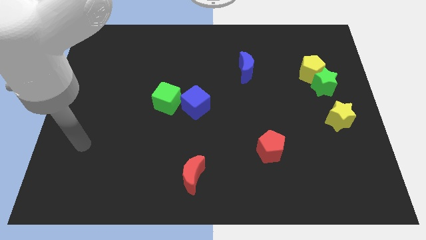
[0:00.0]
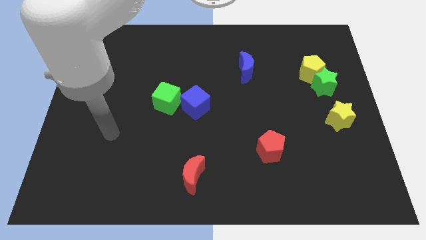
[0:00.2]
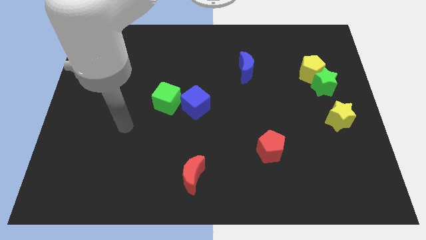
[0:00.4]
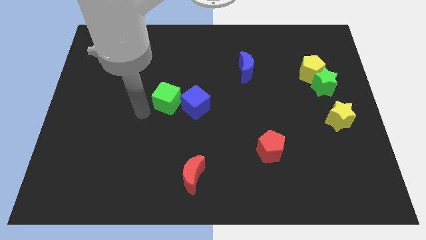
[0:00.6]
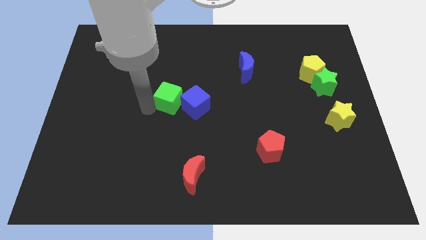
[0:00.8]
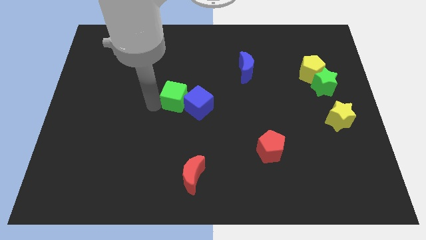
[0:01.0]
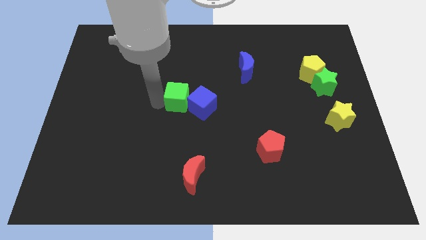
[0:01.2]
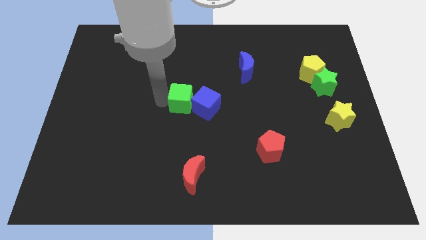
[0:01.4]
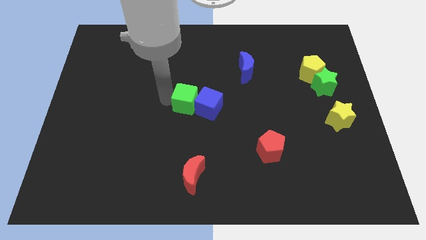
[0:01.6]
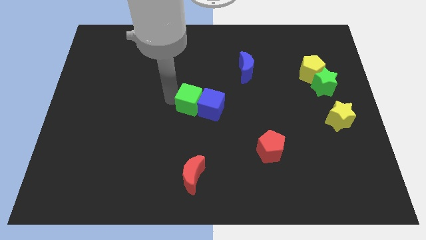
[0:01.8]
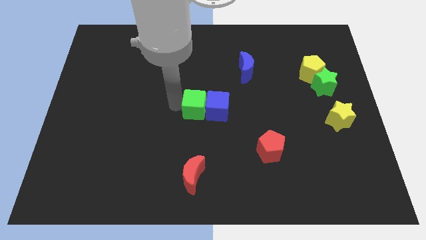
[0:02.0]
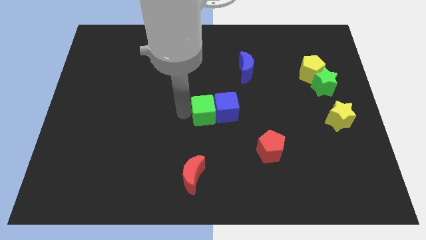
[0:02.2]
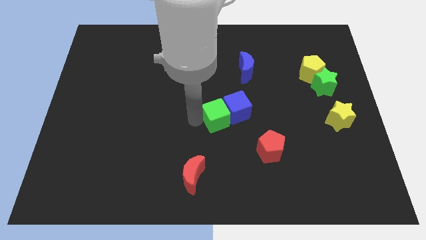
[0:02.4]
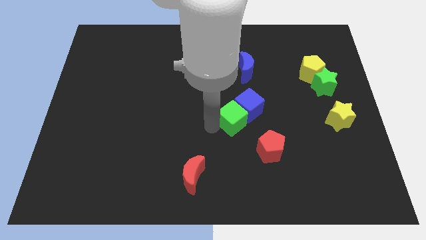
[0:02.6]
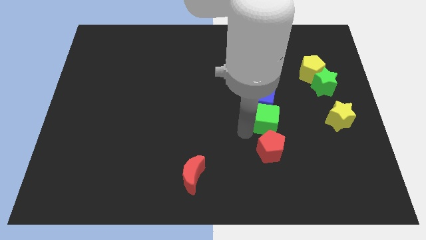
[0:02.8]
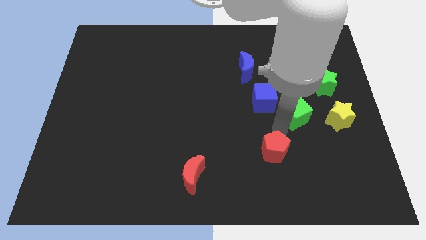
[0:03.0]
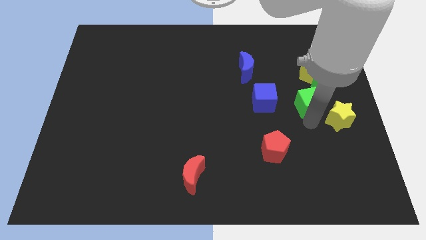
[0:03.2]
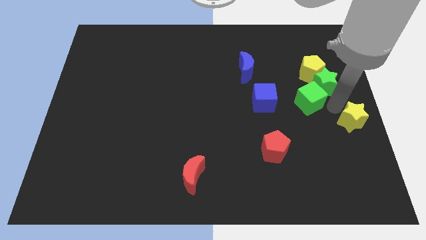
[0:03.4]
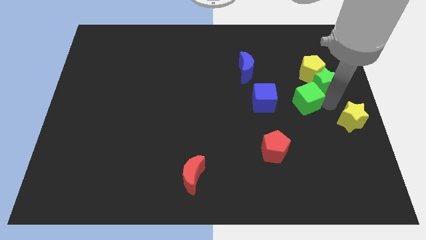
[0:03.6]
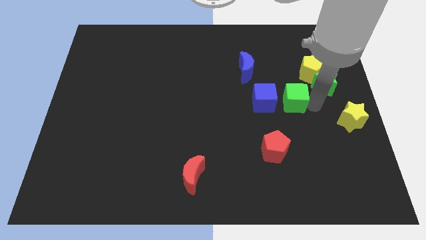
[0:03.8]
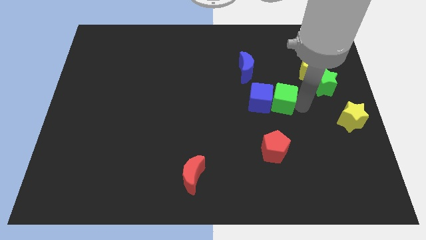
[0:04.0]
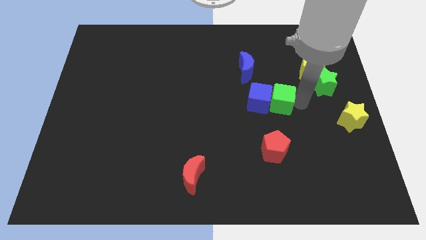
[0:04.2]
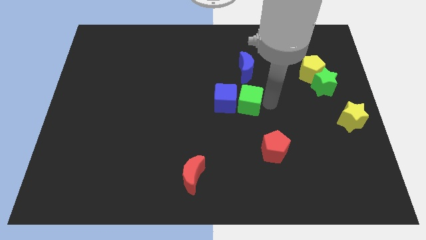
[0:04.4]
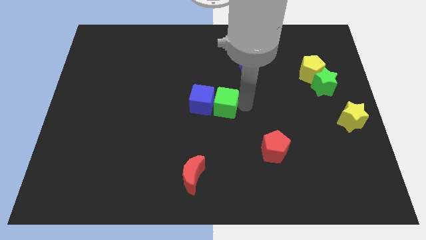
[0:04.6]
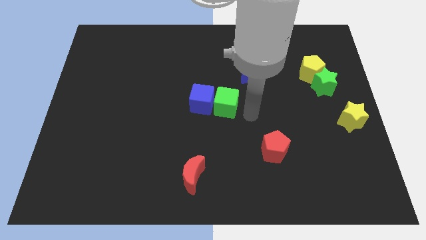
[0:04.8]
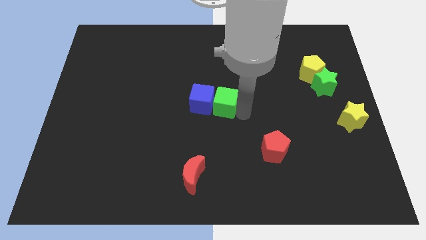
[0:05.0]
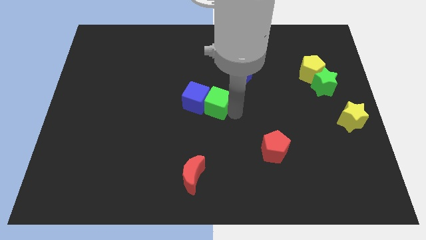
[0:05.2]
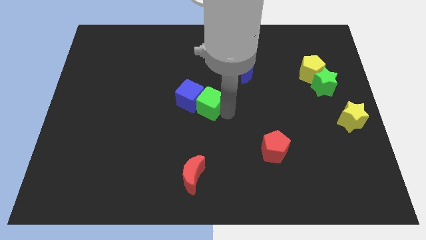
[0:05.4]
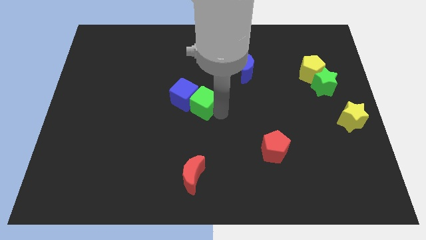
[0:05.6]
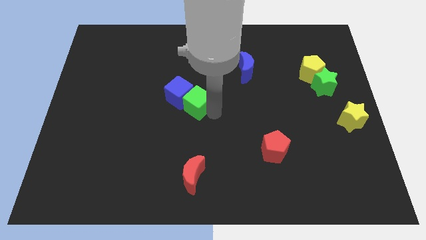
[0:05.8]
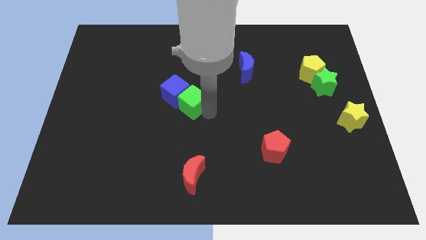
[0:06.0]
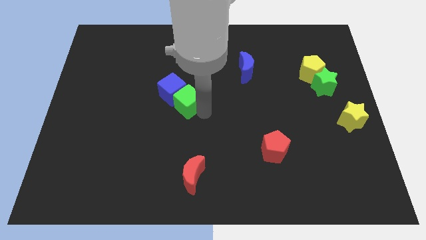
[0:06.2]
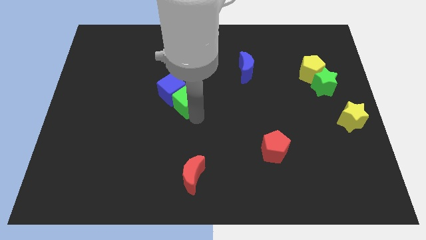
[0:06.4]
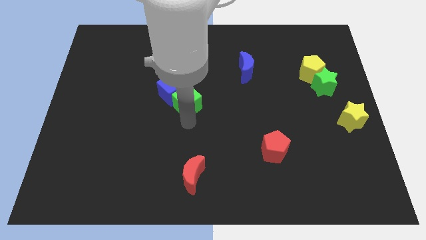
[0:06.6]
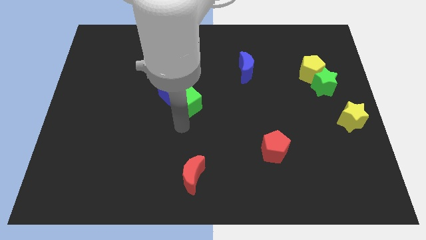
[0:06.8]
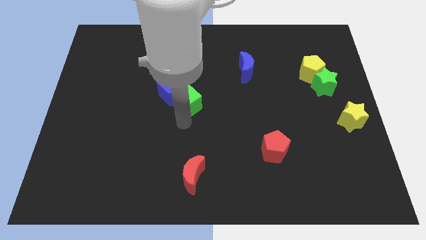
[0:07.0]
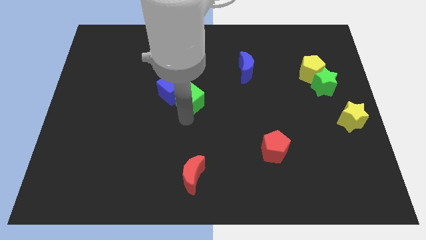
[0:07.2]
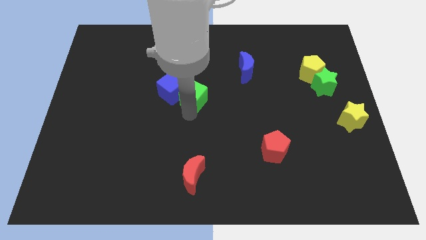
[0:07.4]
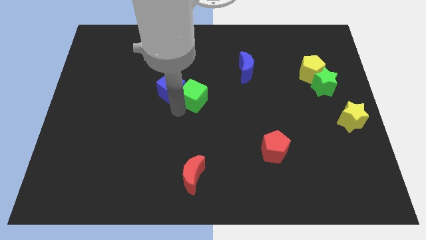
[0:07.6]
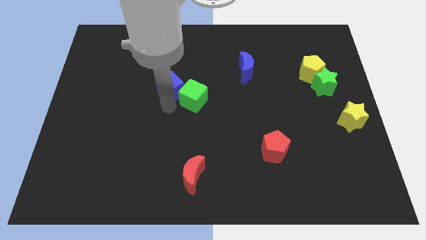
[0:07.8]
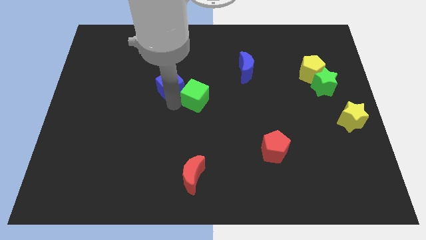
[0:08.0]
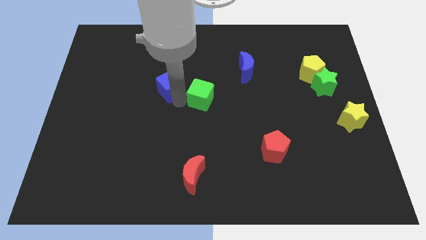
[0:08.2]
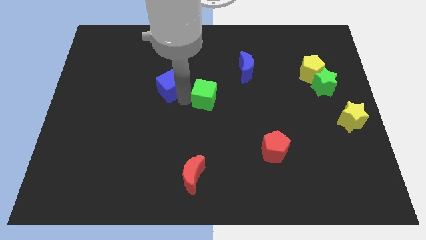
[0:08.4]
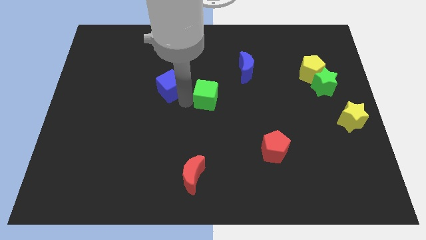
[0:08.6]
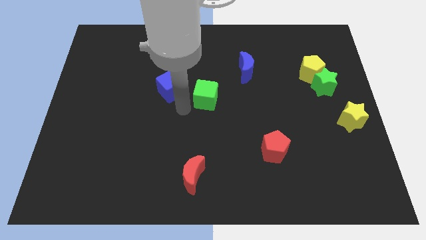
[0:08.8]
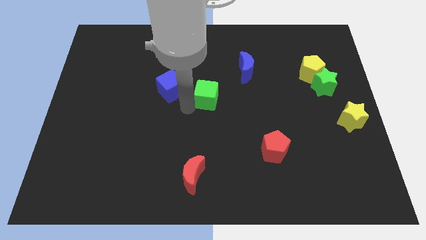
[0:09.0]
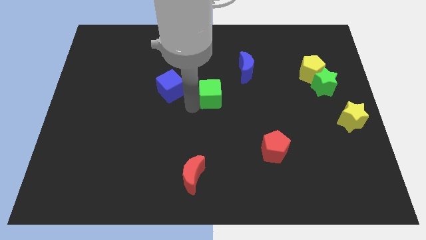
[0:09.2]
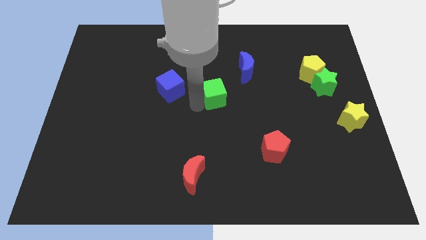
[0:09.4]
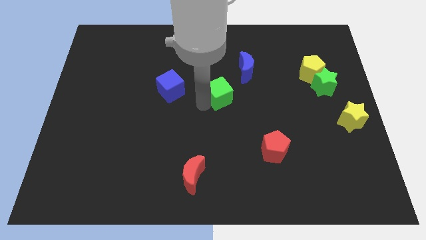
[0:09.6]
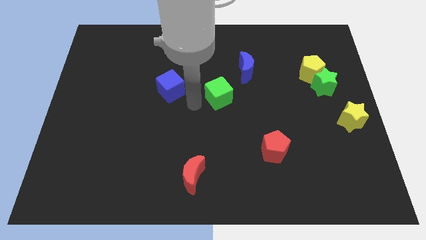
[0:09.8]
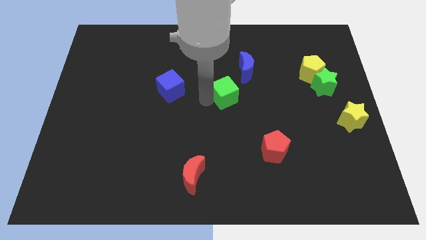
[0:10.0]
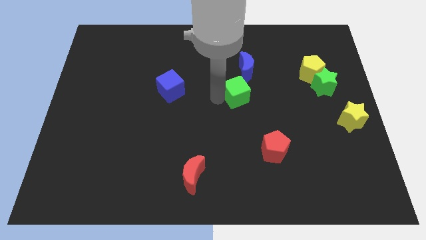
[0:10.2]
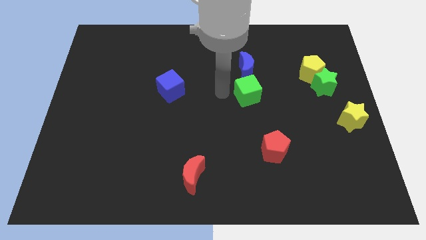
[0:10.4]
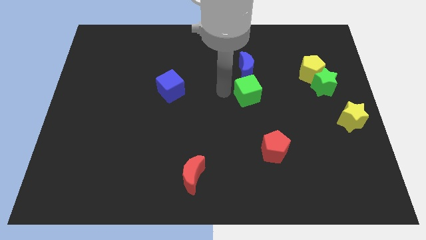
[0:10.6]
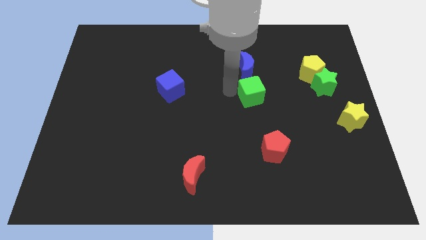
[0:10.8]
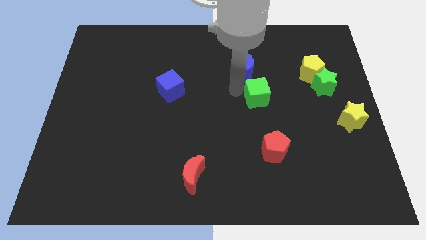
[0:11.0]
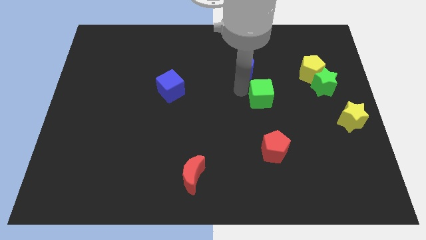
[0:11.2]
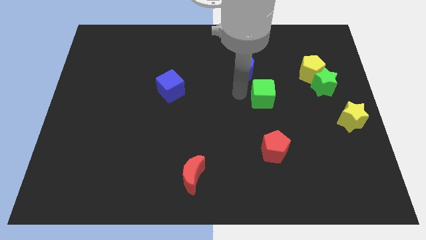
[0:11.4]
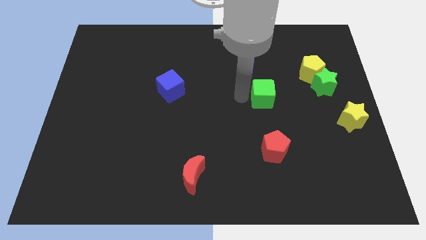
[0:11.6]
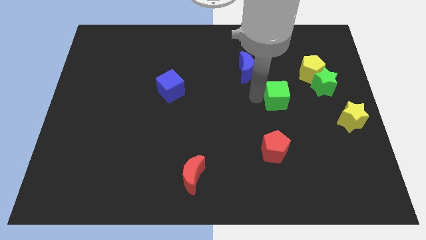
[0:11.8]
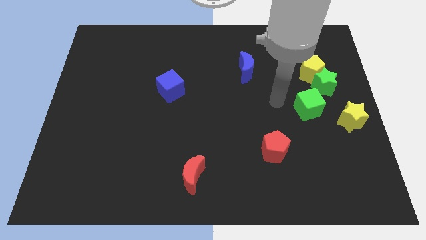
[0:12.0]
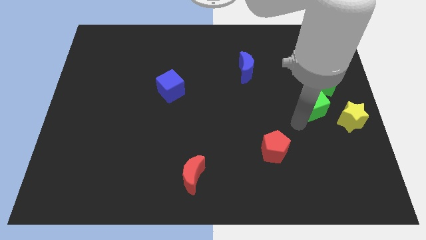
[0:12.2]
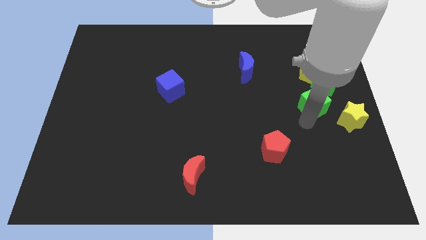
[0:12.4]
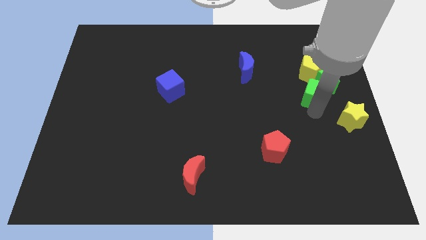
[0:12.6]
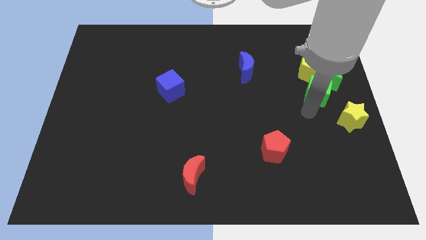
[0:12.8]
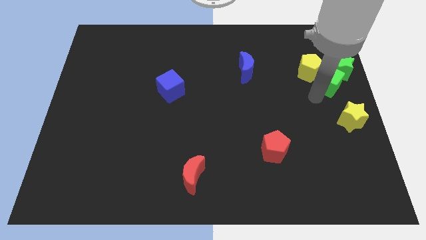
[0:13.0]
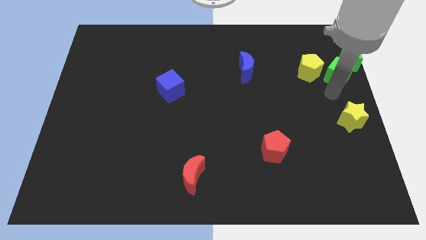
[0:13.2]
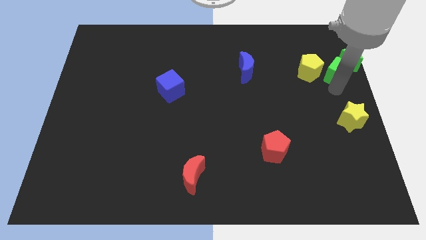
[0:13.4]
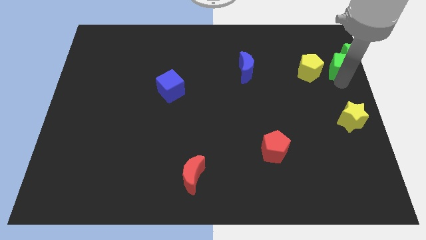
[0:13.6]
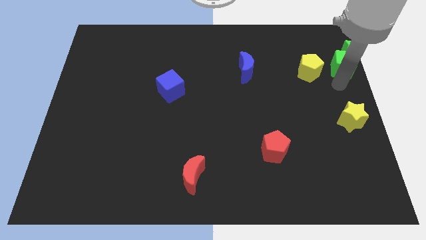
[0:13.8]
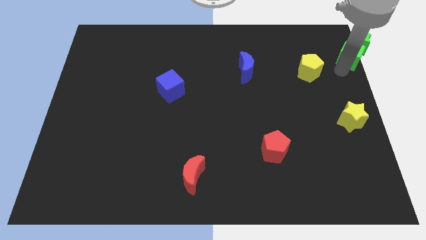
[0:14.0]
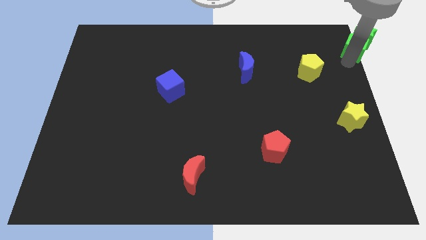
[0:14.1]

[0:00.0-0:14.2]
move the green cube to the top right corner
